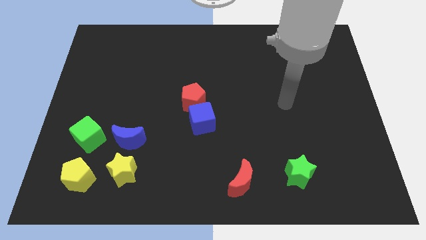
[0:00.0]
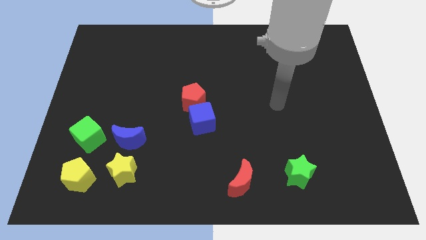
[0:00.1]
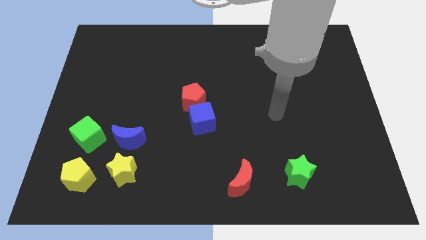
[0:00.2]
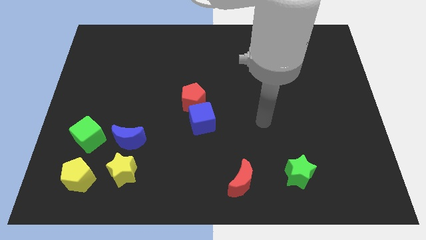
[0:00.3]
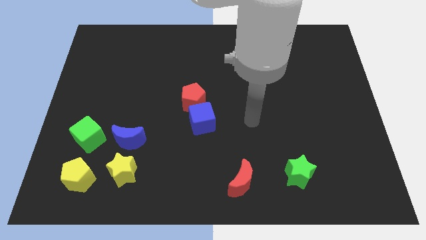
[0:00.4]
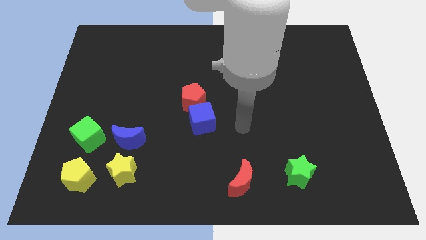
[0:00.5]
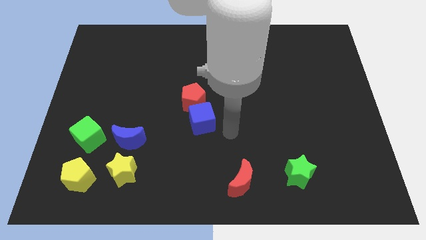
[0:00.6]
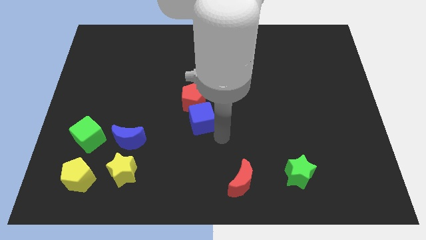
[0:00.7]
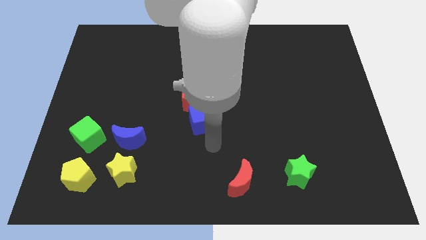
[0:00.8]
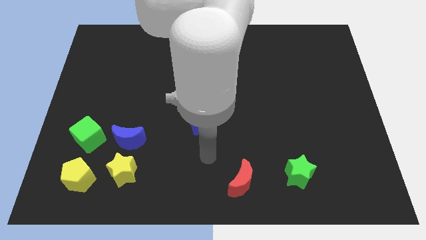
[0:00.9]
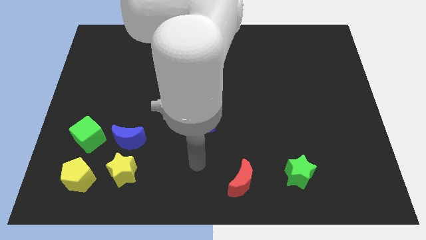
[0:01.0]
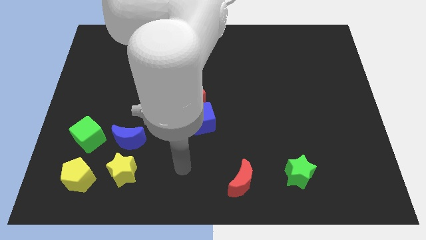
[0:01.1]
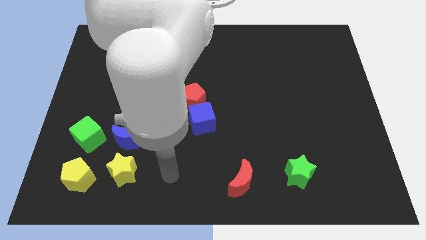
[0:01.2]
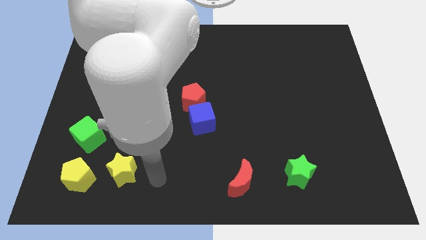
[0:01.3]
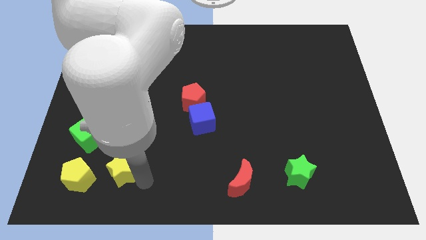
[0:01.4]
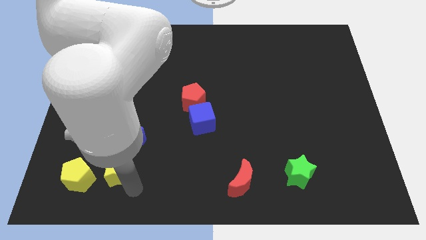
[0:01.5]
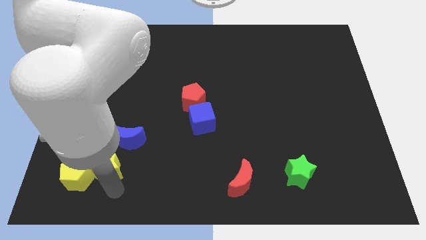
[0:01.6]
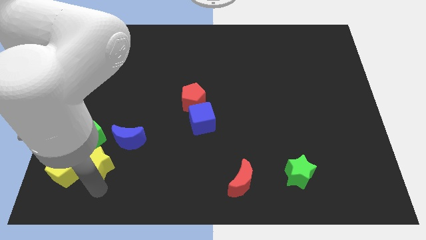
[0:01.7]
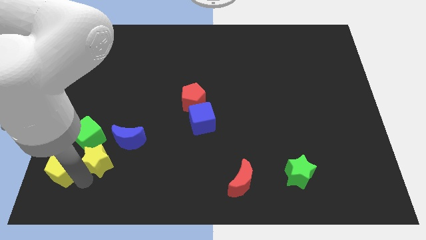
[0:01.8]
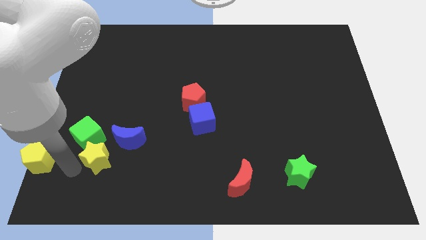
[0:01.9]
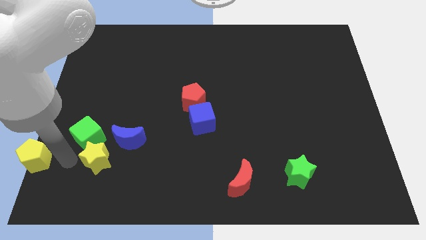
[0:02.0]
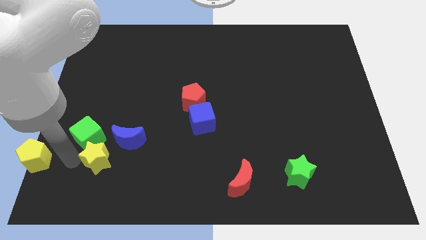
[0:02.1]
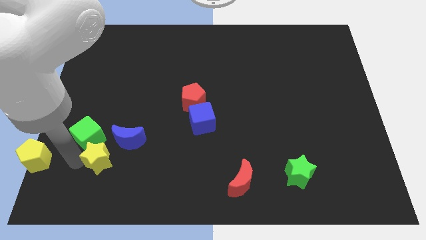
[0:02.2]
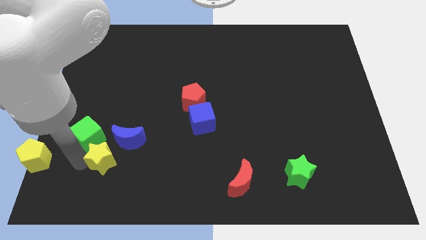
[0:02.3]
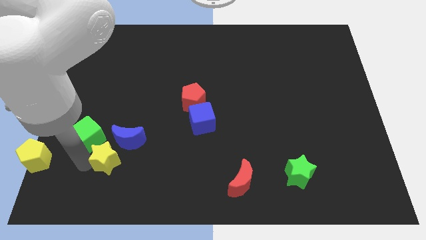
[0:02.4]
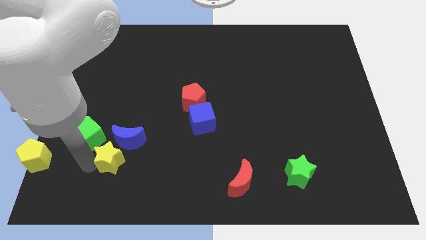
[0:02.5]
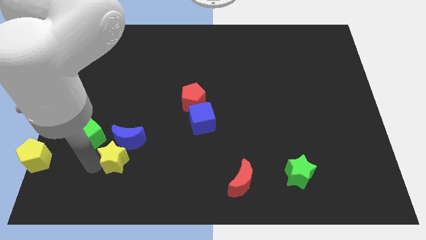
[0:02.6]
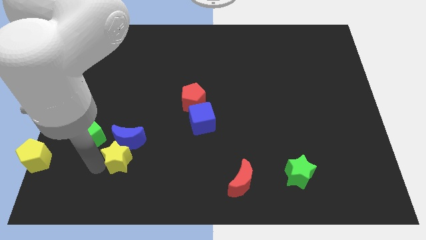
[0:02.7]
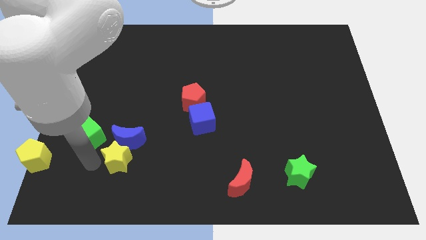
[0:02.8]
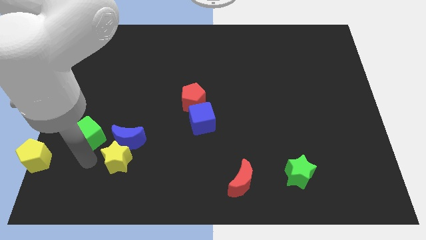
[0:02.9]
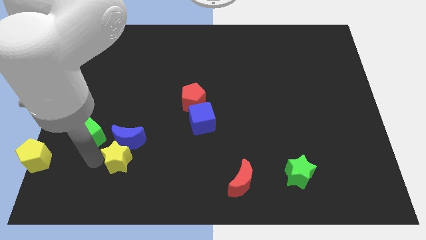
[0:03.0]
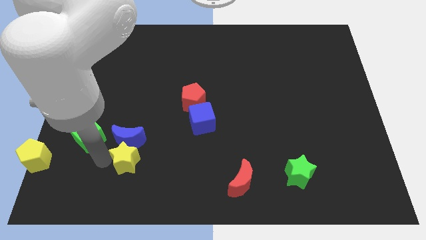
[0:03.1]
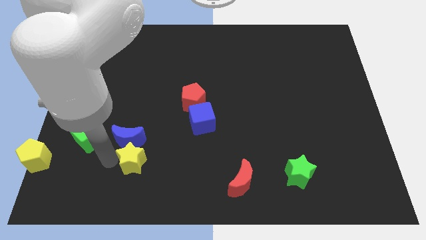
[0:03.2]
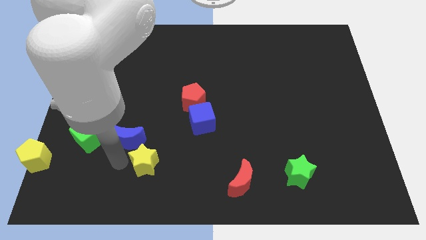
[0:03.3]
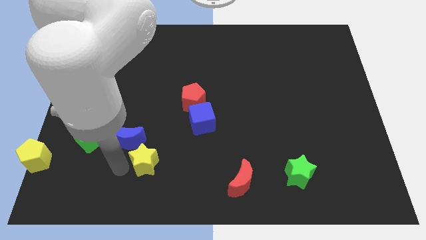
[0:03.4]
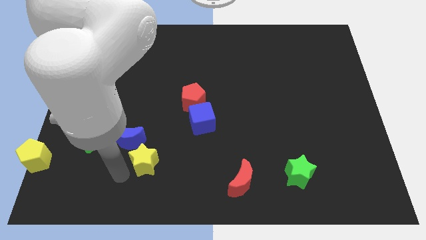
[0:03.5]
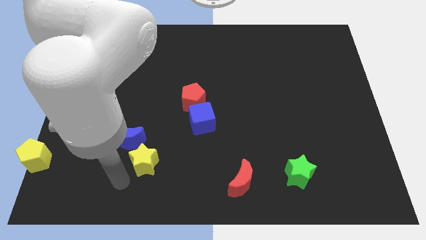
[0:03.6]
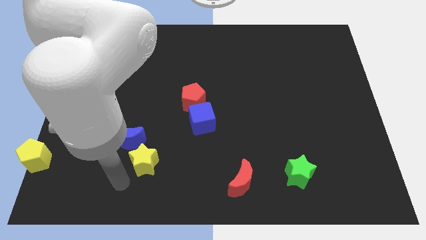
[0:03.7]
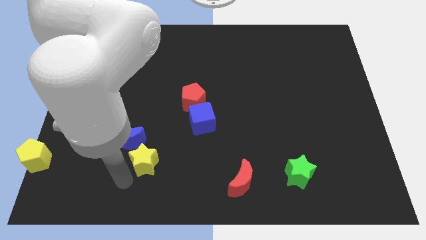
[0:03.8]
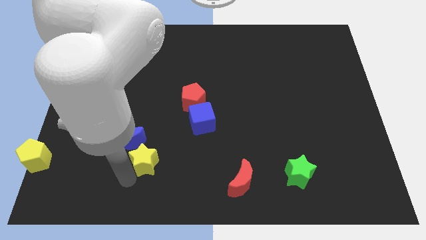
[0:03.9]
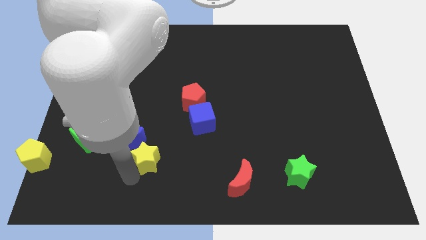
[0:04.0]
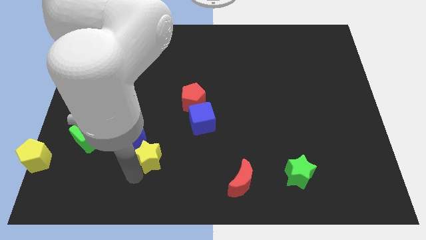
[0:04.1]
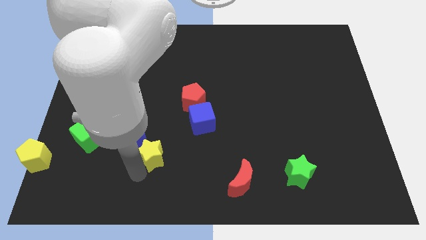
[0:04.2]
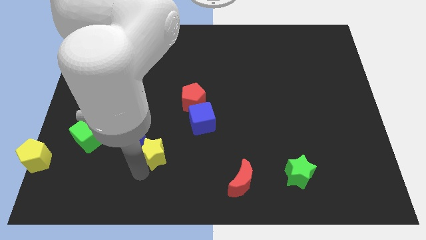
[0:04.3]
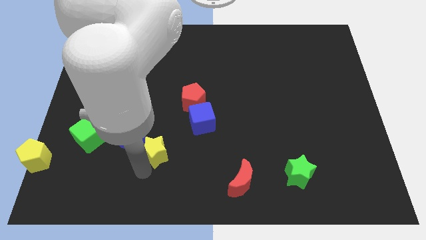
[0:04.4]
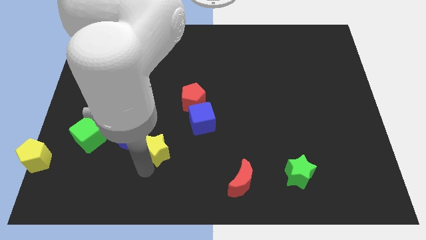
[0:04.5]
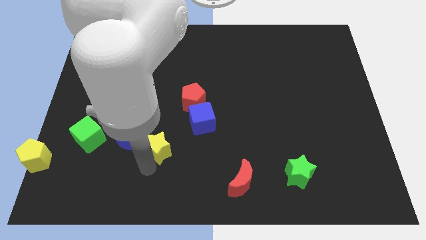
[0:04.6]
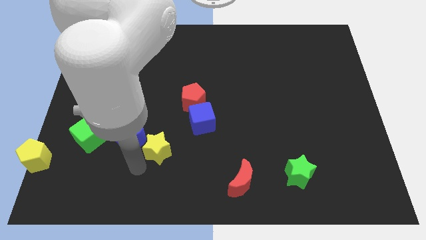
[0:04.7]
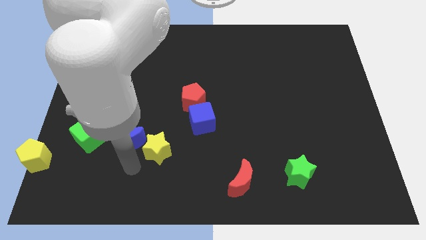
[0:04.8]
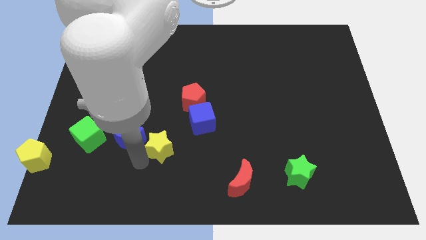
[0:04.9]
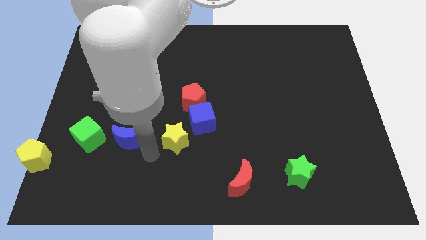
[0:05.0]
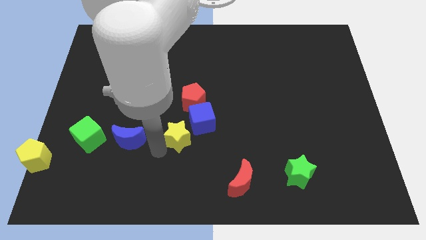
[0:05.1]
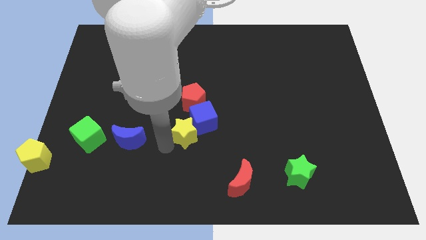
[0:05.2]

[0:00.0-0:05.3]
move the yellow star to the blue cube

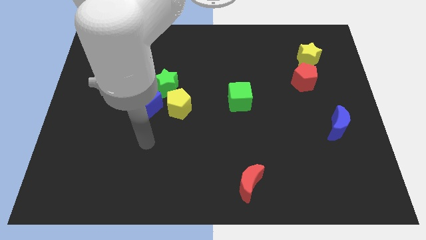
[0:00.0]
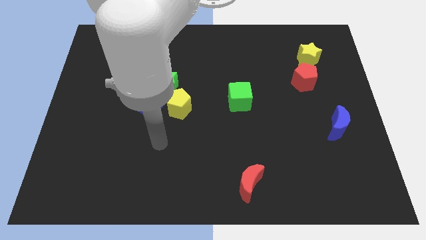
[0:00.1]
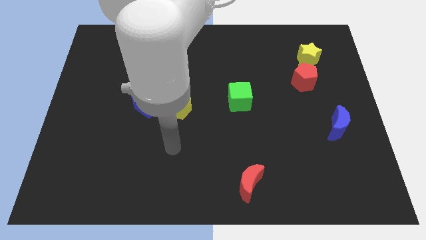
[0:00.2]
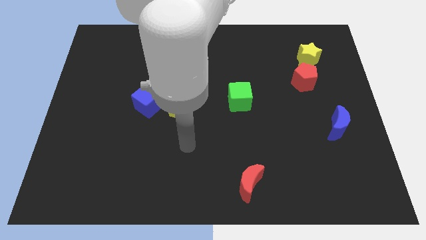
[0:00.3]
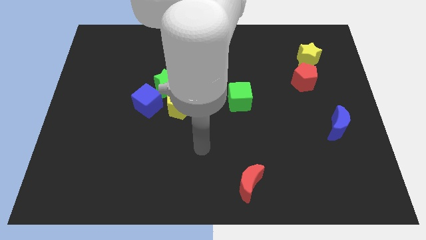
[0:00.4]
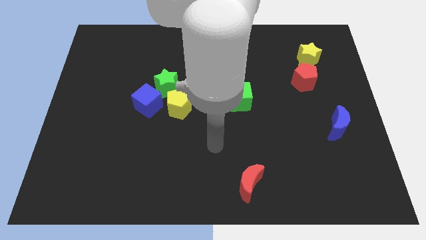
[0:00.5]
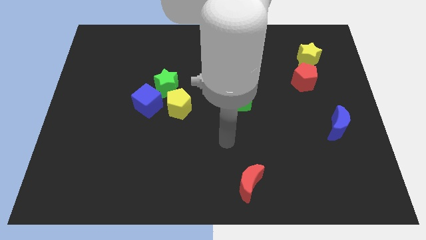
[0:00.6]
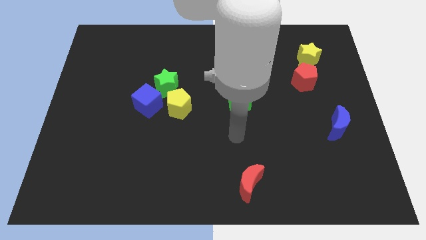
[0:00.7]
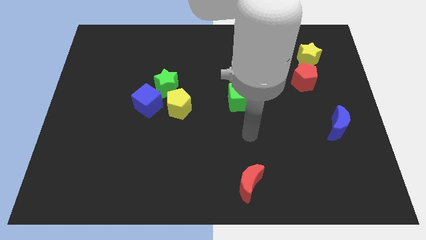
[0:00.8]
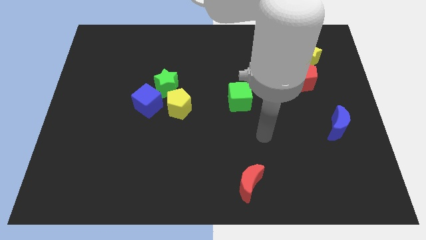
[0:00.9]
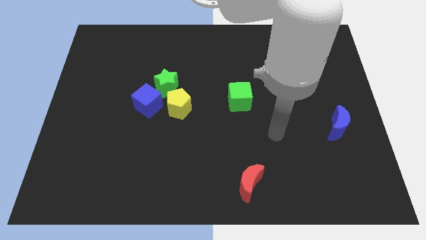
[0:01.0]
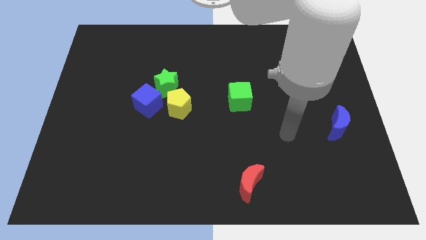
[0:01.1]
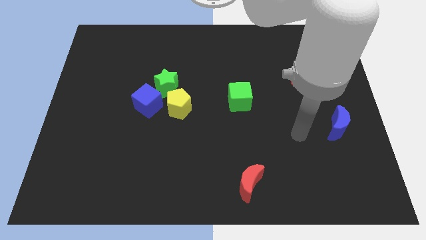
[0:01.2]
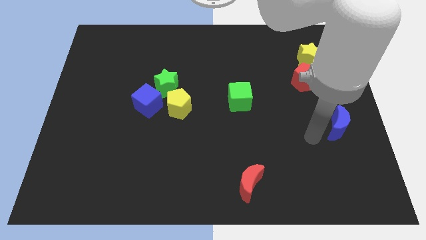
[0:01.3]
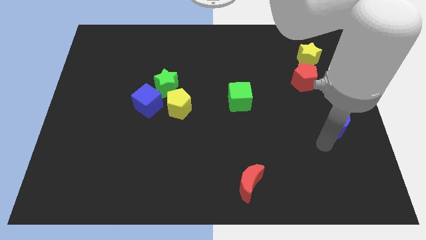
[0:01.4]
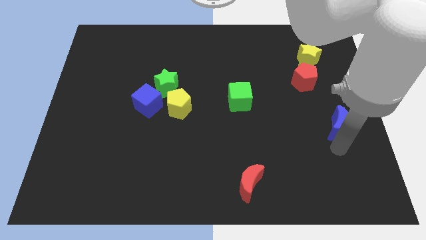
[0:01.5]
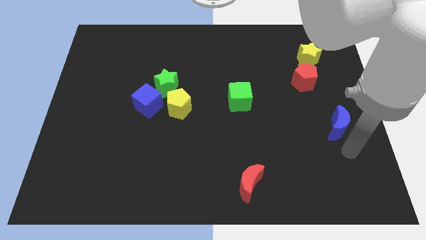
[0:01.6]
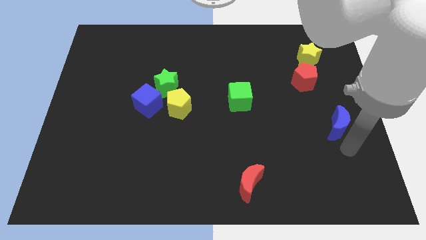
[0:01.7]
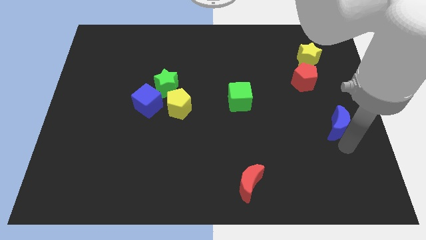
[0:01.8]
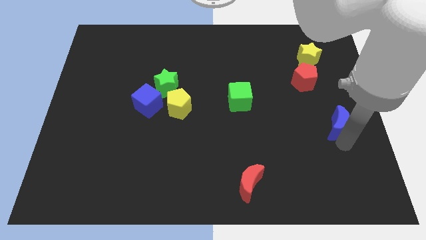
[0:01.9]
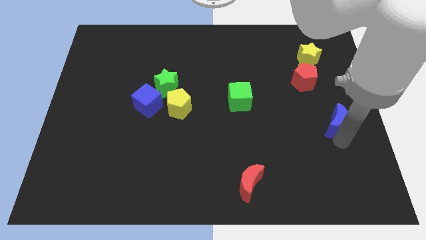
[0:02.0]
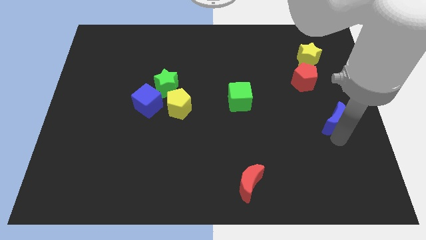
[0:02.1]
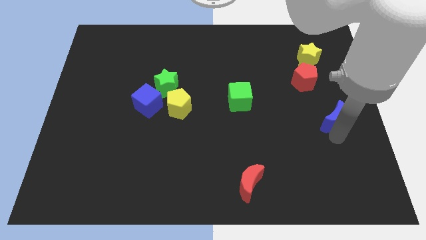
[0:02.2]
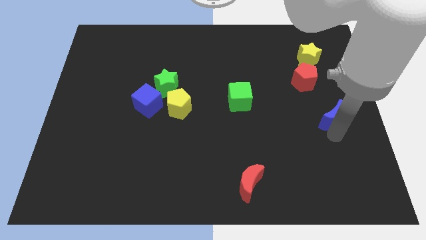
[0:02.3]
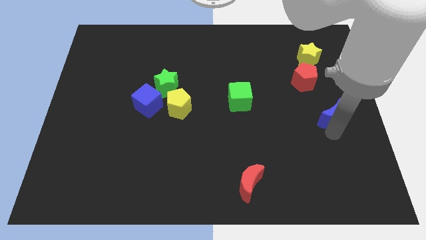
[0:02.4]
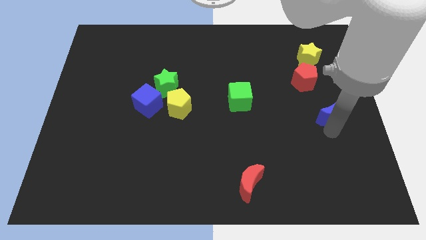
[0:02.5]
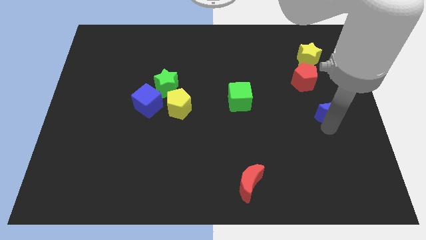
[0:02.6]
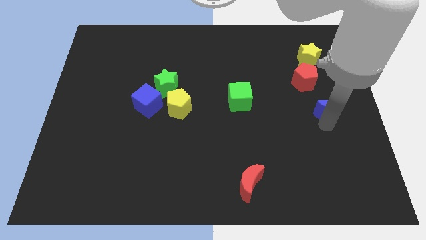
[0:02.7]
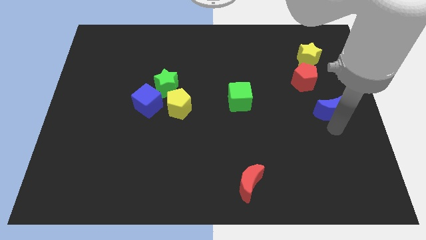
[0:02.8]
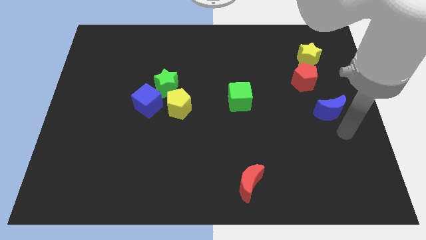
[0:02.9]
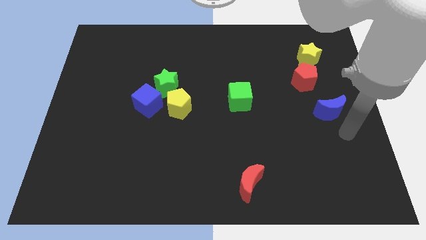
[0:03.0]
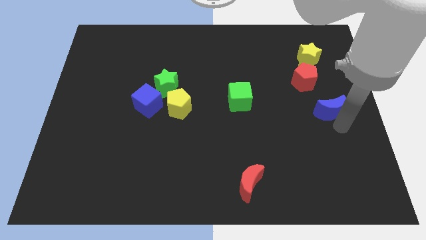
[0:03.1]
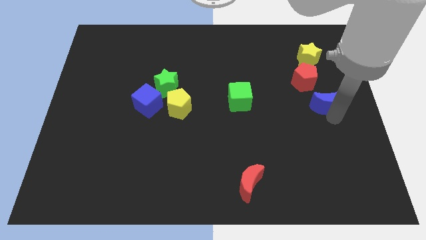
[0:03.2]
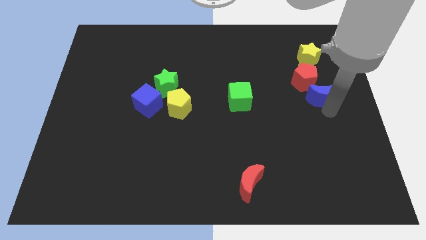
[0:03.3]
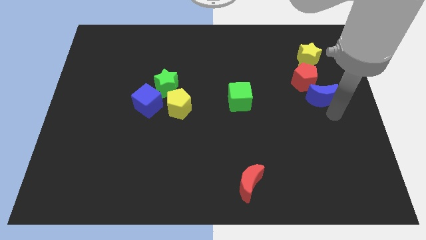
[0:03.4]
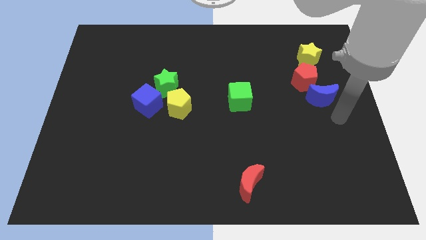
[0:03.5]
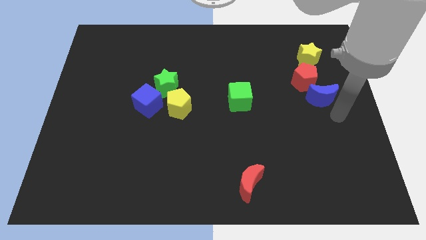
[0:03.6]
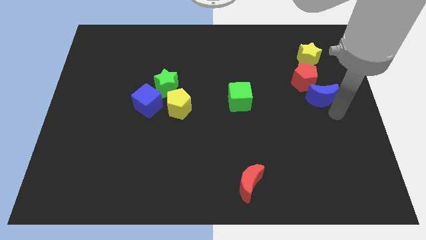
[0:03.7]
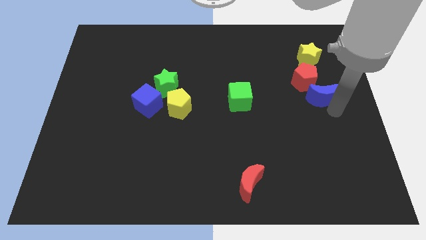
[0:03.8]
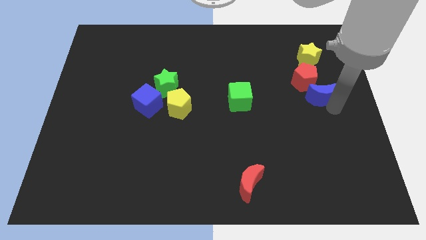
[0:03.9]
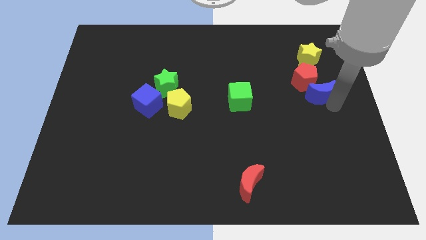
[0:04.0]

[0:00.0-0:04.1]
move the blue moon next to the red pentagon
